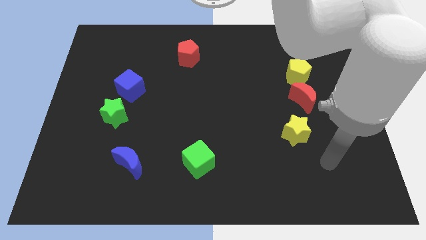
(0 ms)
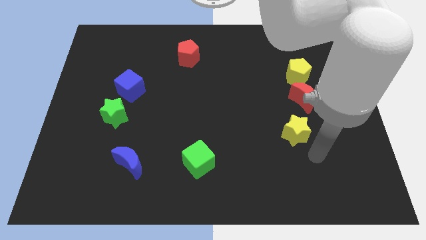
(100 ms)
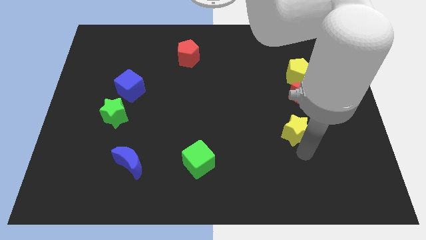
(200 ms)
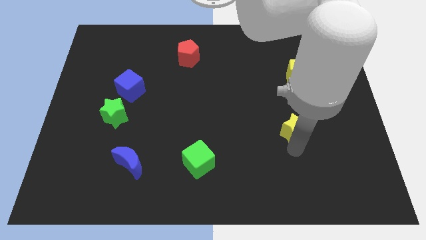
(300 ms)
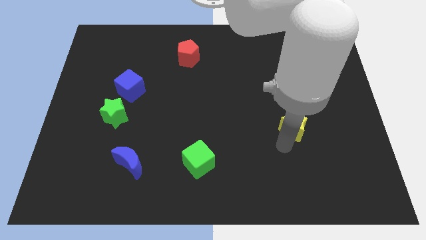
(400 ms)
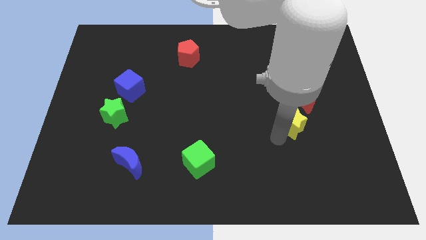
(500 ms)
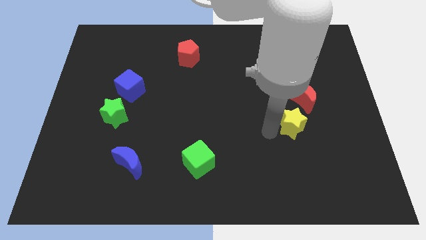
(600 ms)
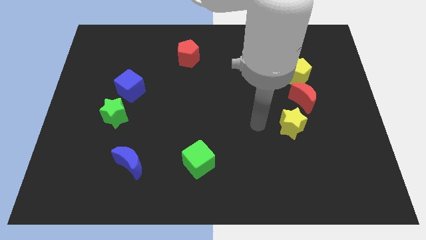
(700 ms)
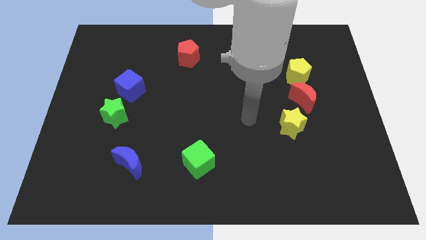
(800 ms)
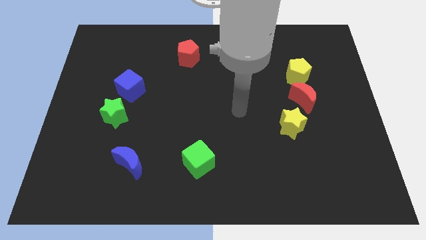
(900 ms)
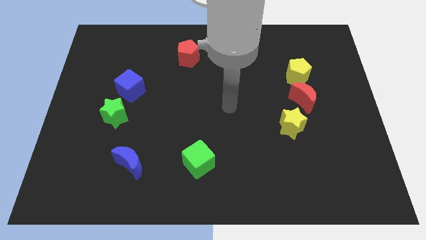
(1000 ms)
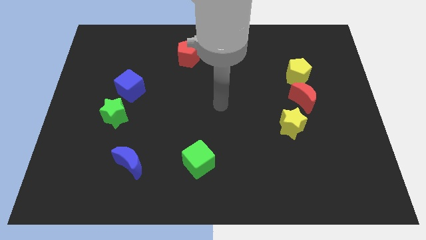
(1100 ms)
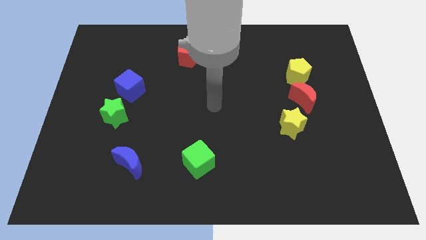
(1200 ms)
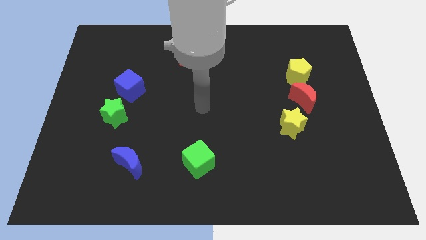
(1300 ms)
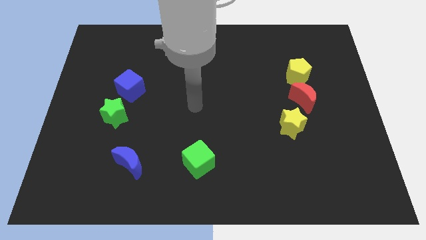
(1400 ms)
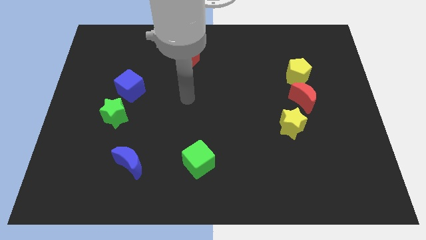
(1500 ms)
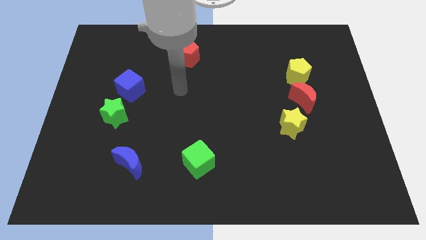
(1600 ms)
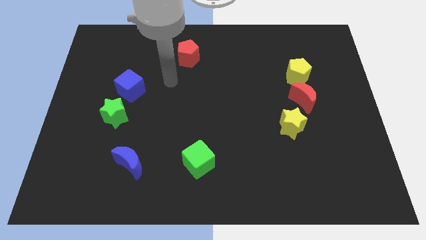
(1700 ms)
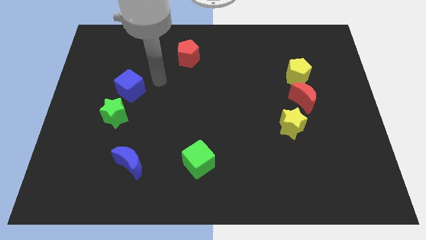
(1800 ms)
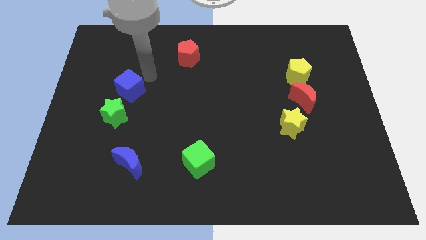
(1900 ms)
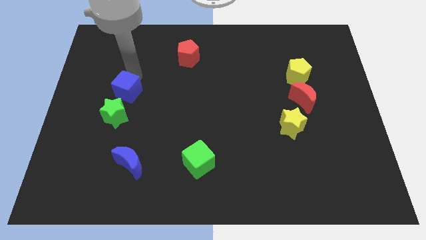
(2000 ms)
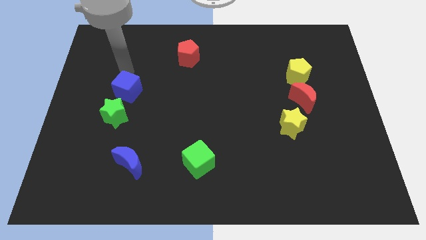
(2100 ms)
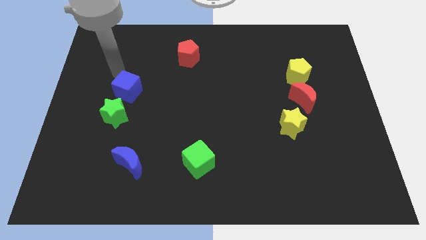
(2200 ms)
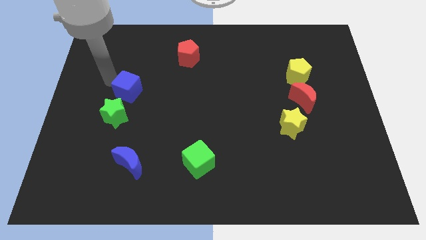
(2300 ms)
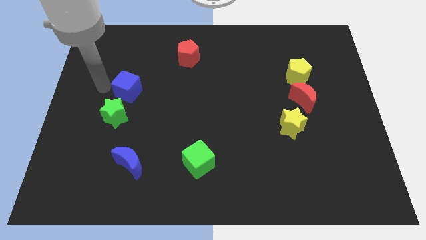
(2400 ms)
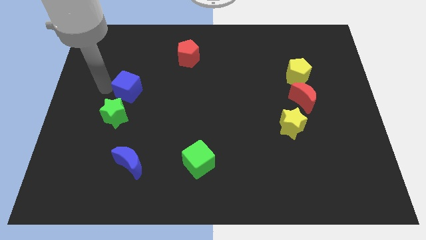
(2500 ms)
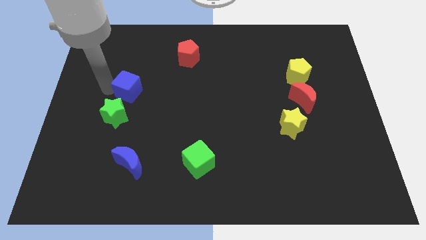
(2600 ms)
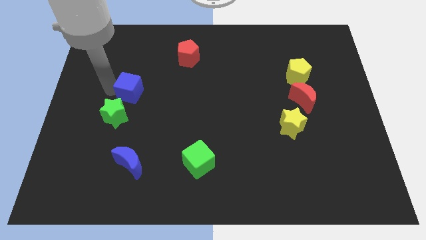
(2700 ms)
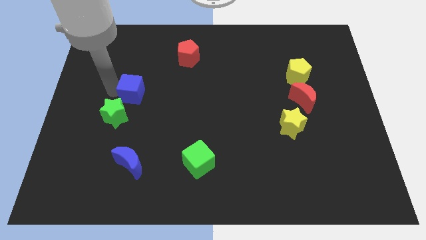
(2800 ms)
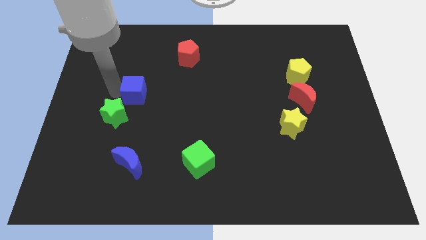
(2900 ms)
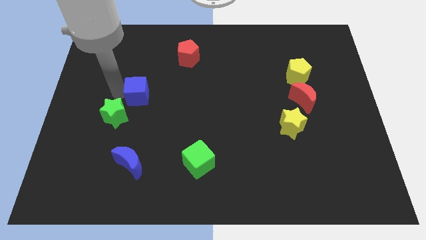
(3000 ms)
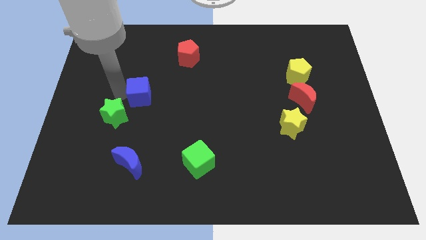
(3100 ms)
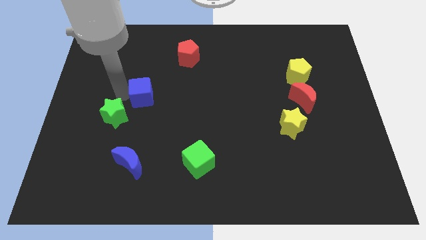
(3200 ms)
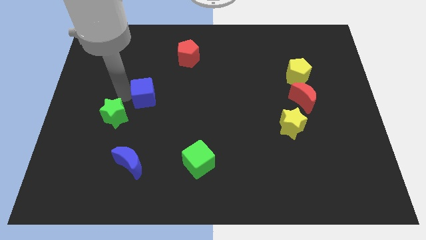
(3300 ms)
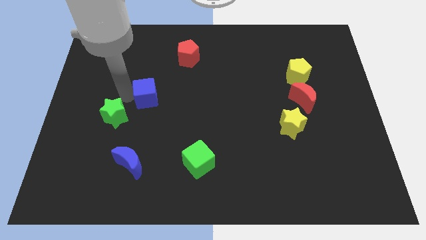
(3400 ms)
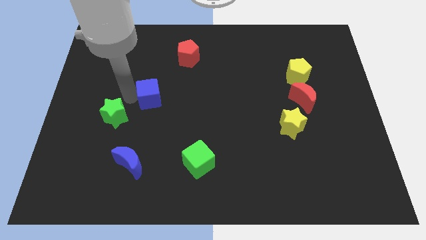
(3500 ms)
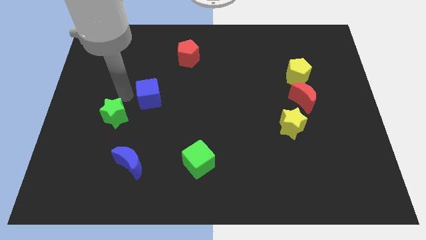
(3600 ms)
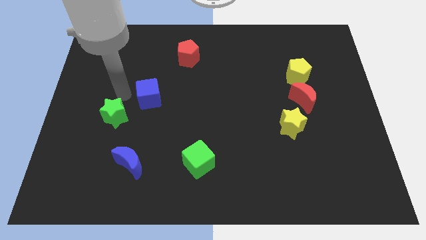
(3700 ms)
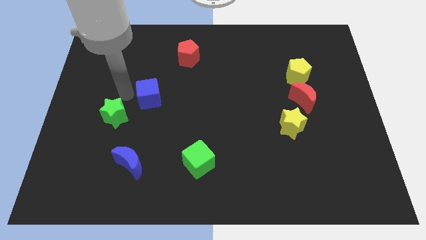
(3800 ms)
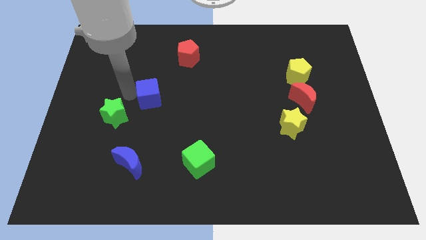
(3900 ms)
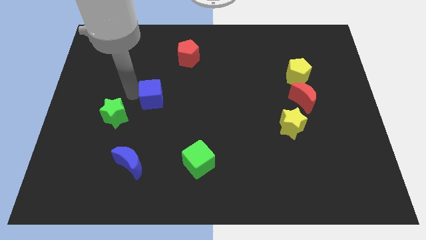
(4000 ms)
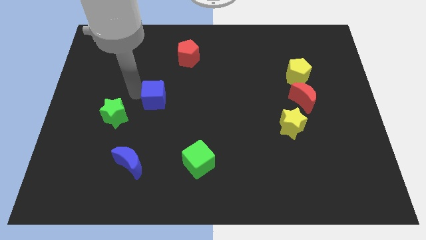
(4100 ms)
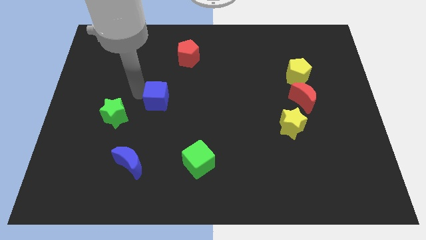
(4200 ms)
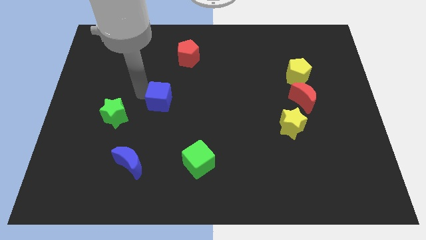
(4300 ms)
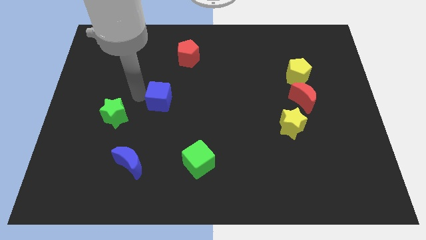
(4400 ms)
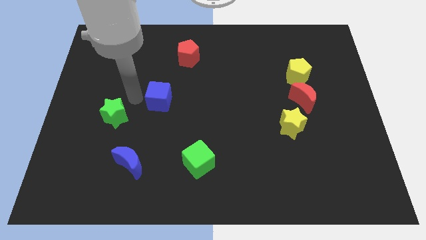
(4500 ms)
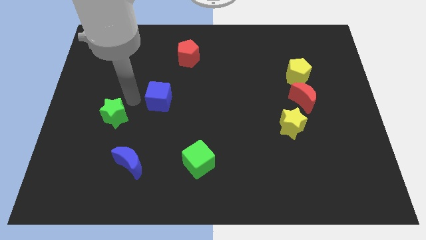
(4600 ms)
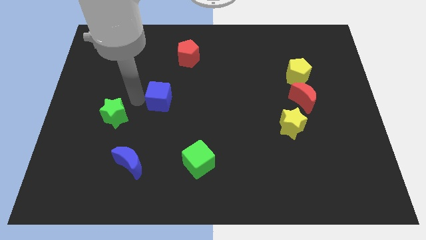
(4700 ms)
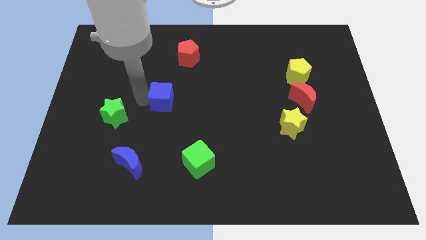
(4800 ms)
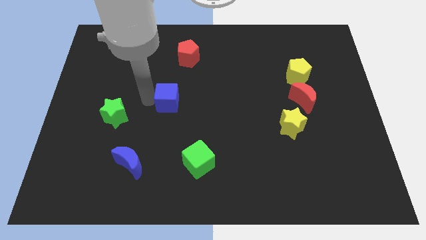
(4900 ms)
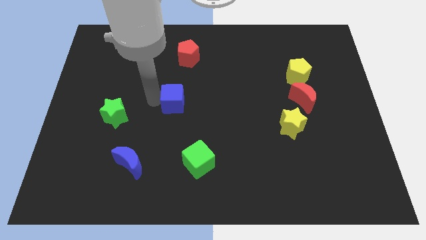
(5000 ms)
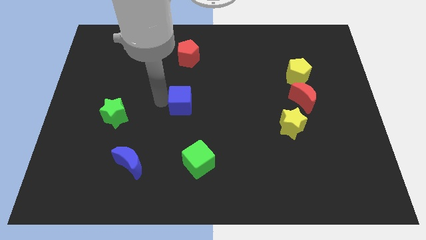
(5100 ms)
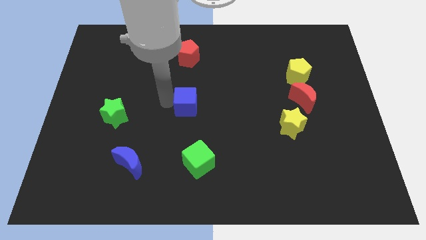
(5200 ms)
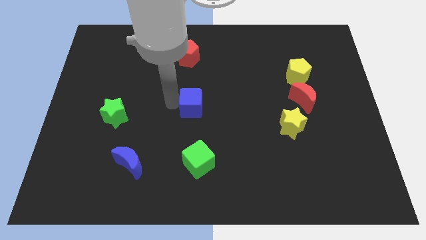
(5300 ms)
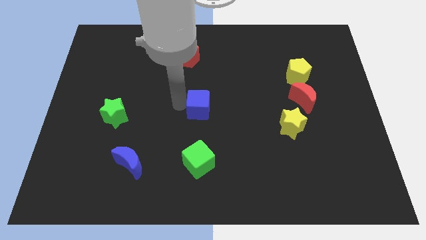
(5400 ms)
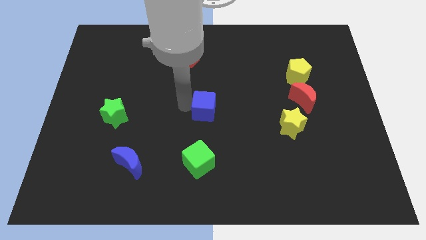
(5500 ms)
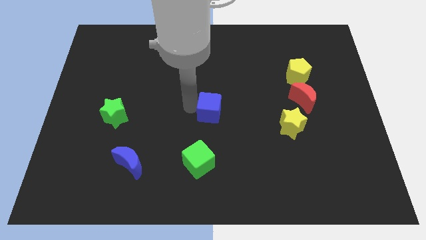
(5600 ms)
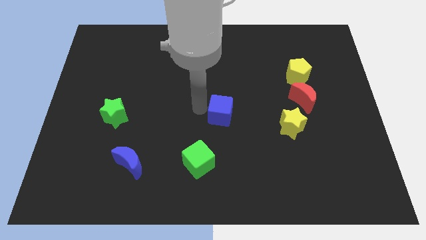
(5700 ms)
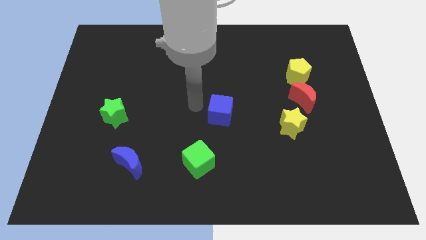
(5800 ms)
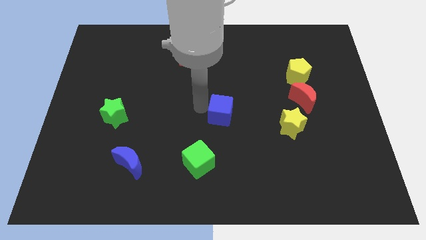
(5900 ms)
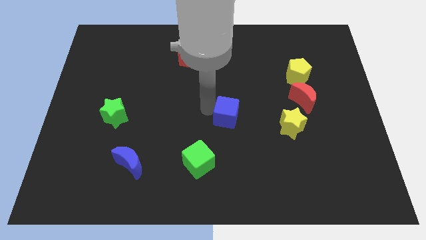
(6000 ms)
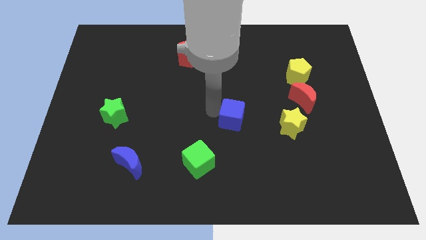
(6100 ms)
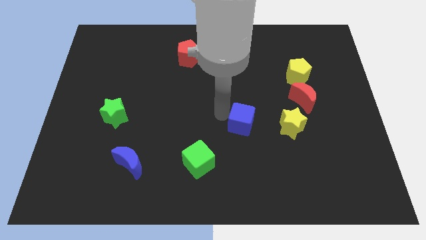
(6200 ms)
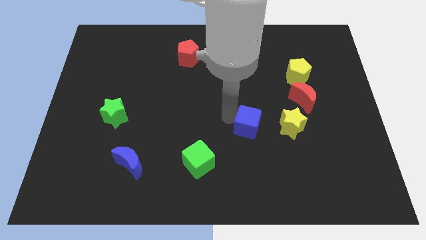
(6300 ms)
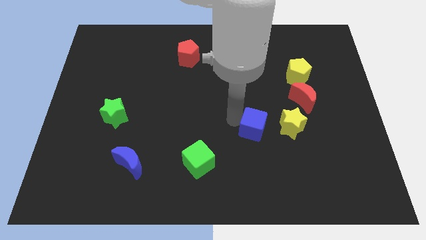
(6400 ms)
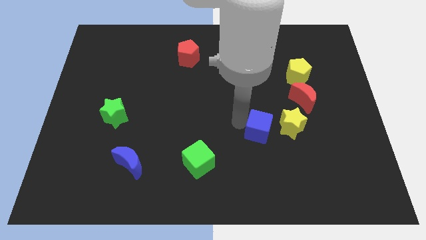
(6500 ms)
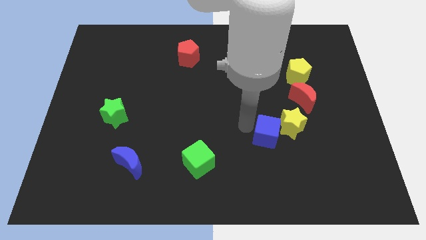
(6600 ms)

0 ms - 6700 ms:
push the blue cube towards the yellow star

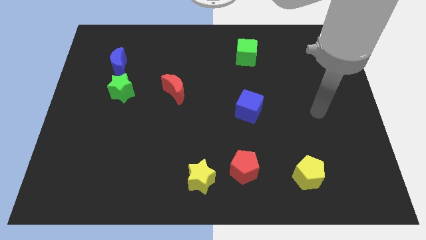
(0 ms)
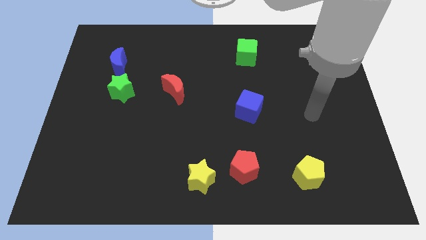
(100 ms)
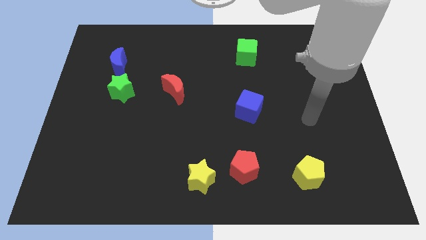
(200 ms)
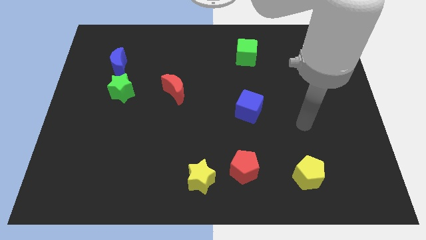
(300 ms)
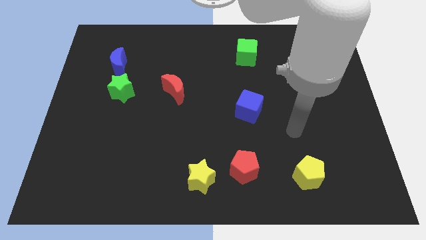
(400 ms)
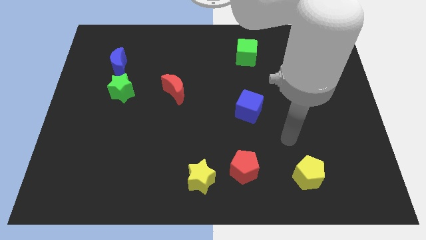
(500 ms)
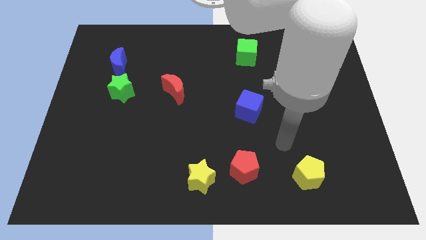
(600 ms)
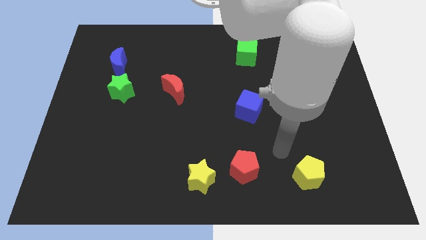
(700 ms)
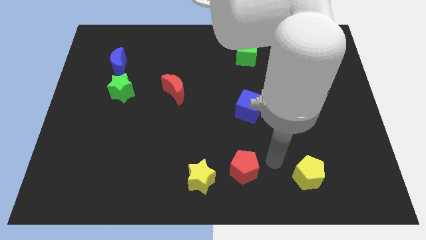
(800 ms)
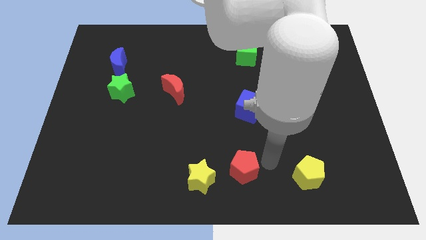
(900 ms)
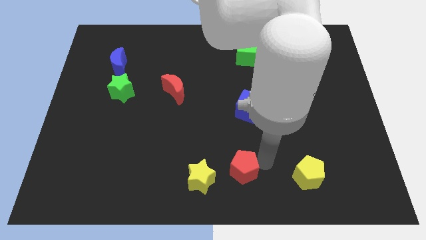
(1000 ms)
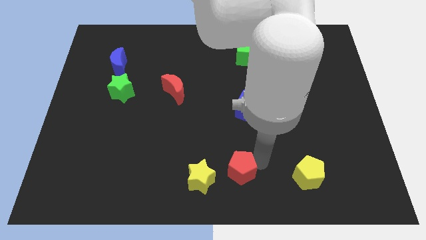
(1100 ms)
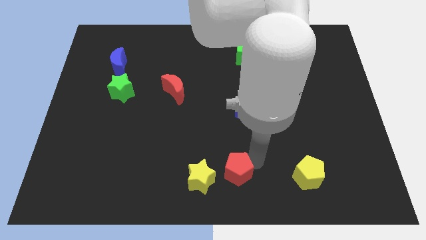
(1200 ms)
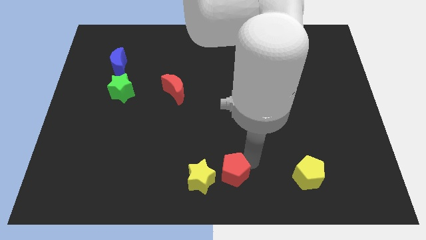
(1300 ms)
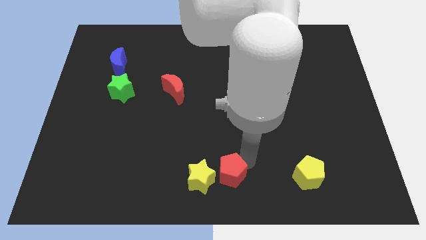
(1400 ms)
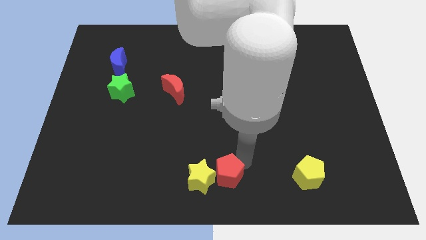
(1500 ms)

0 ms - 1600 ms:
move the red pentagon towards the yellow star
